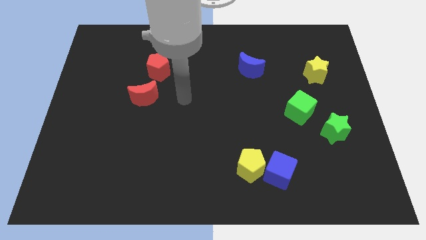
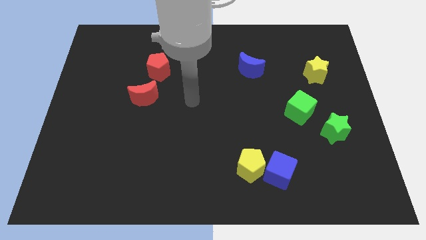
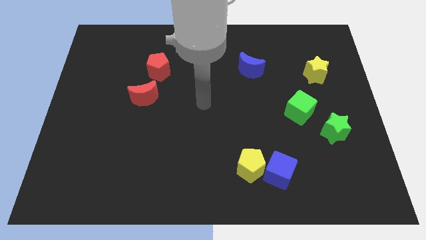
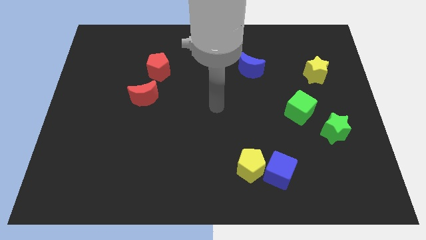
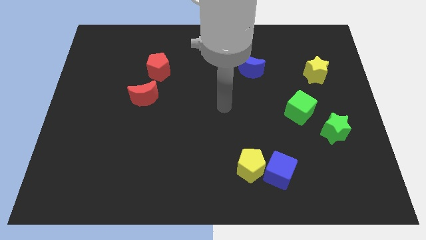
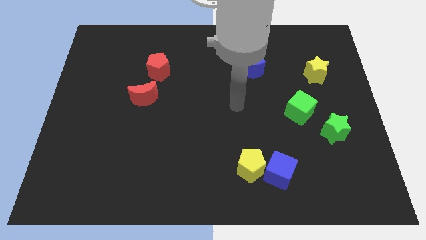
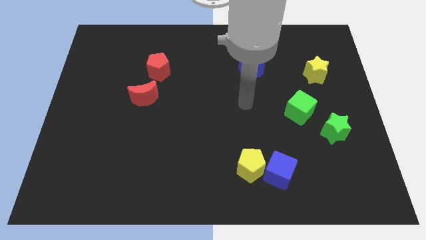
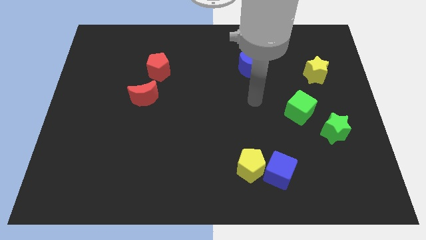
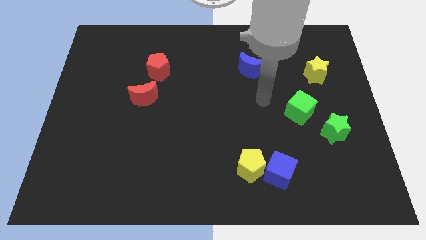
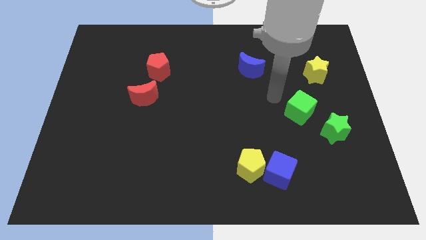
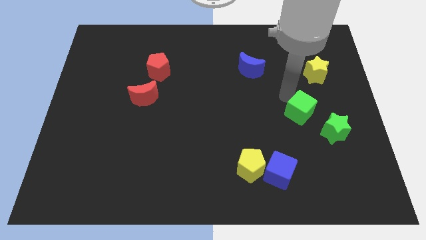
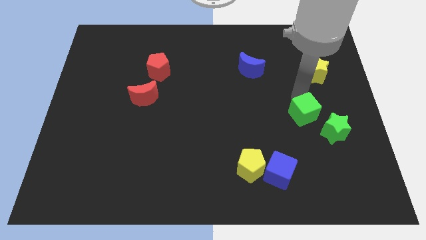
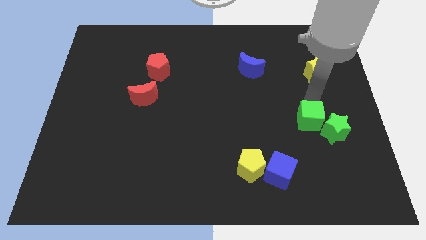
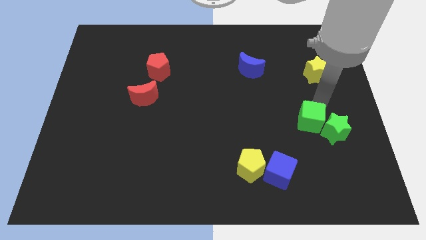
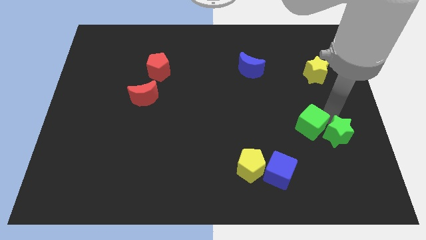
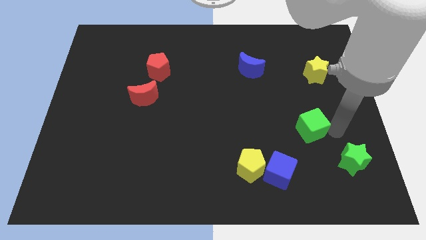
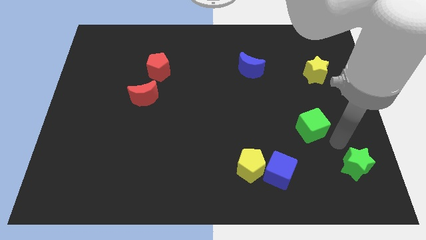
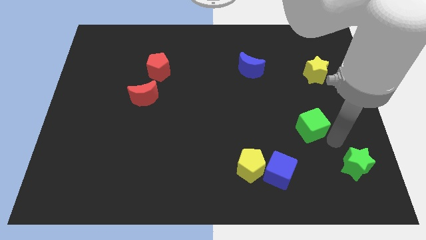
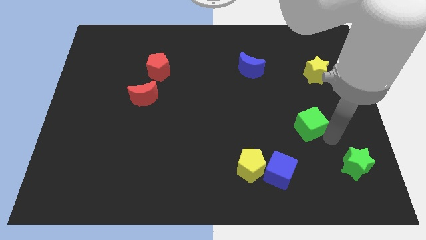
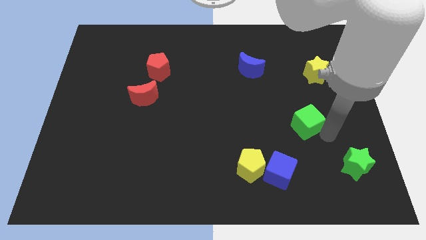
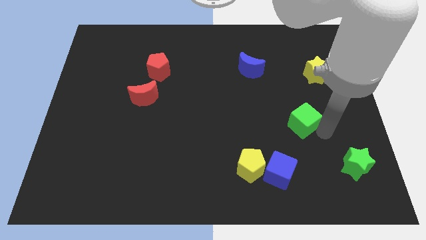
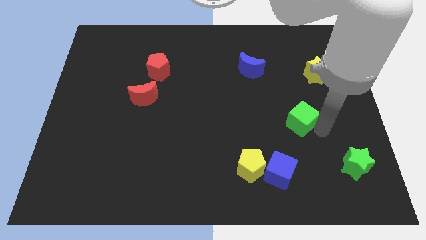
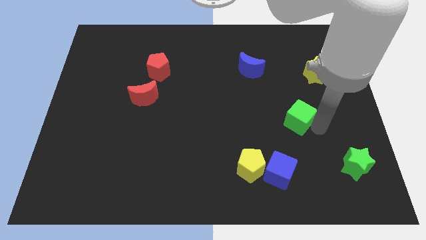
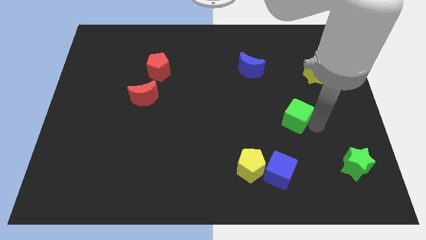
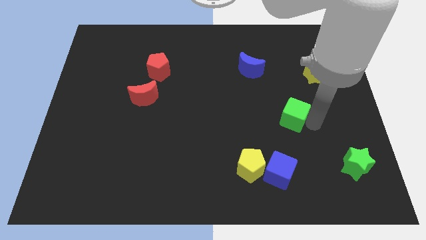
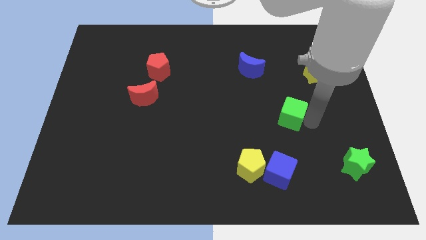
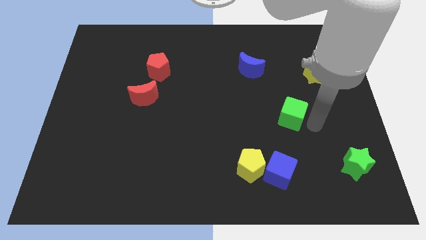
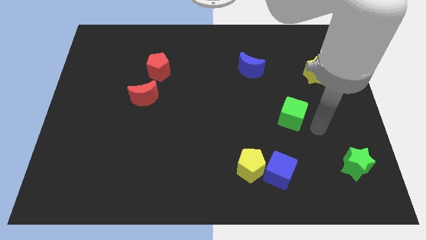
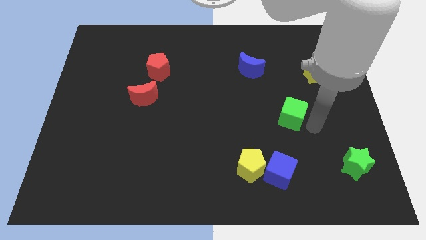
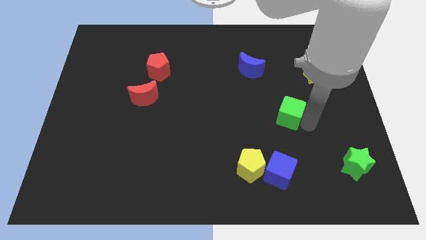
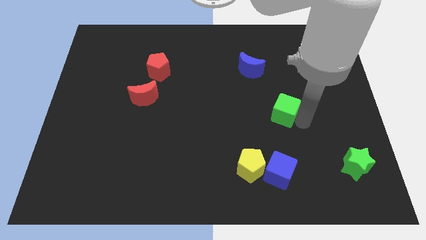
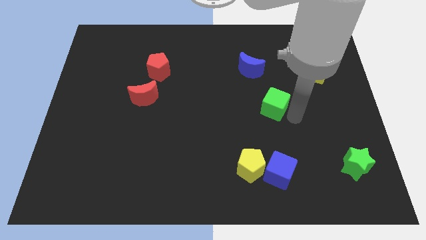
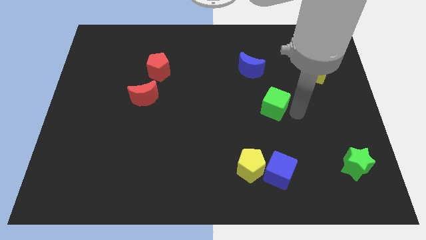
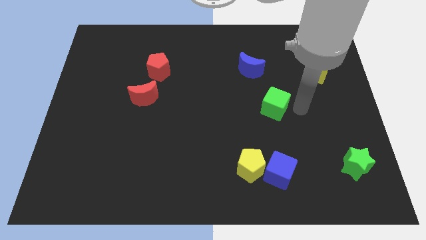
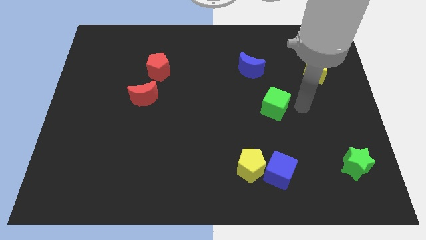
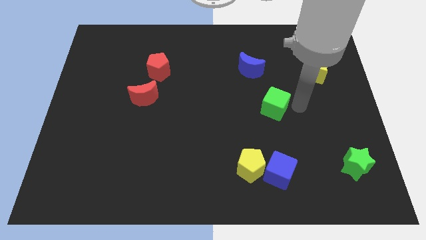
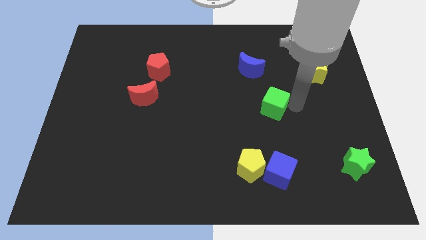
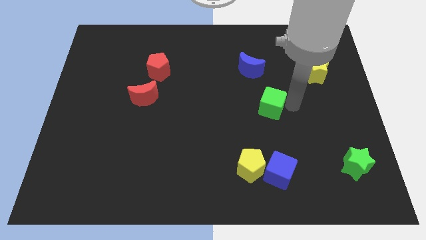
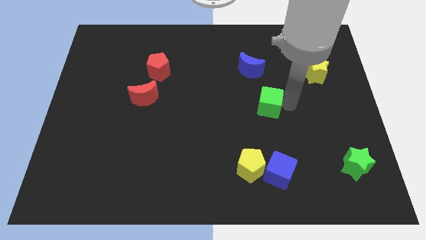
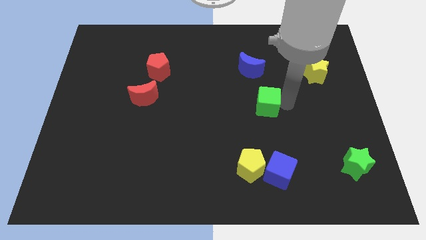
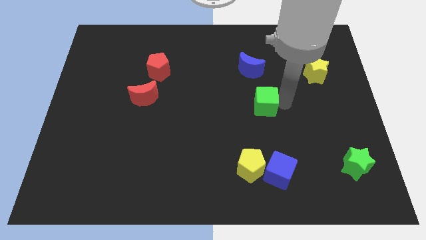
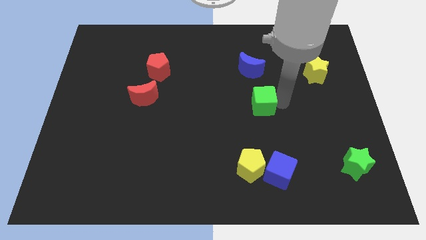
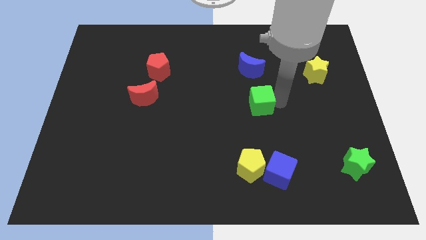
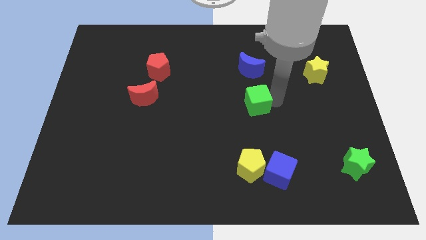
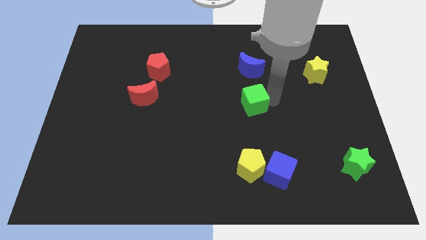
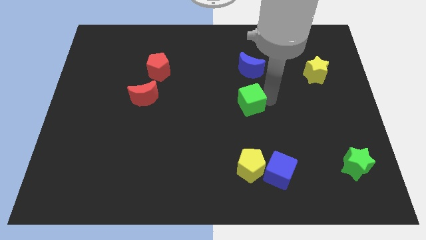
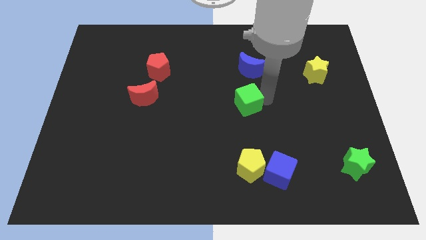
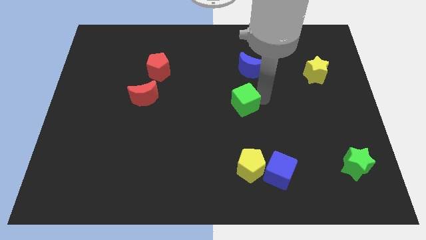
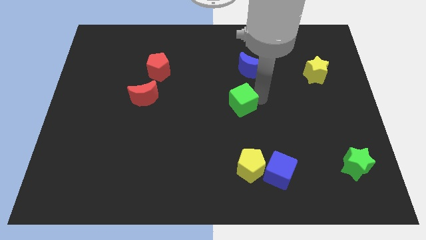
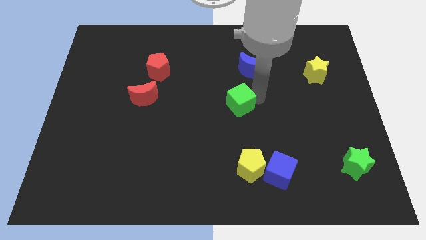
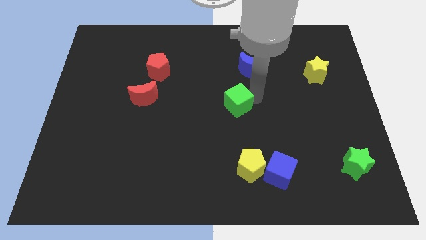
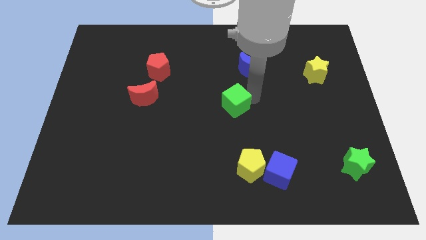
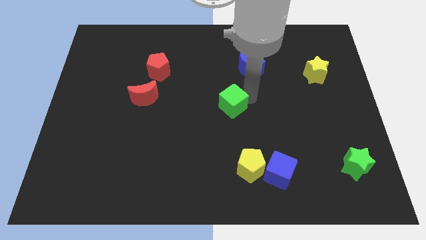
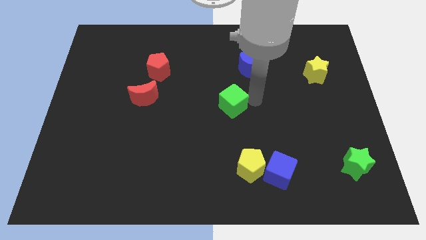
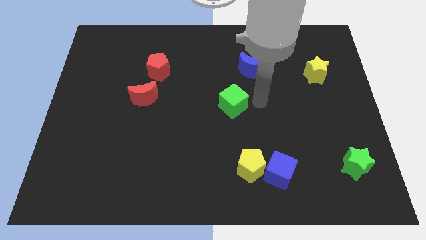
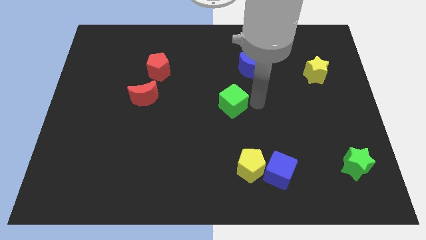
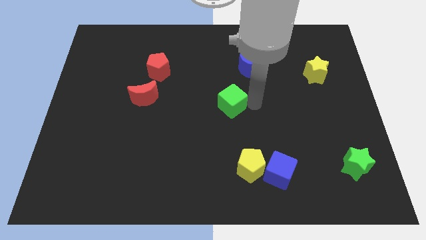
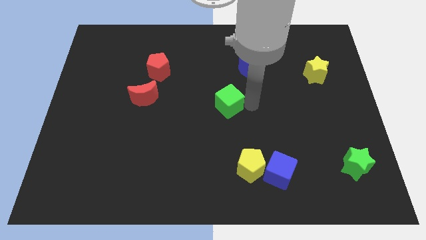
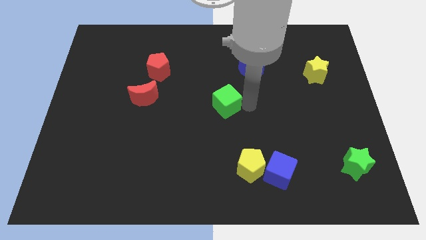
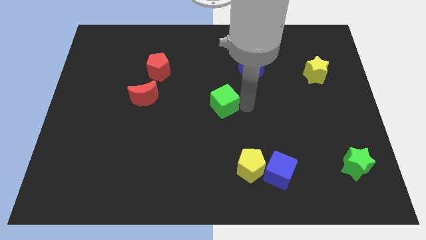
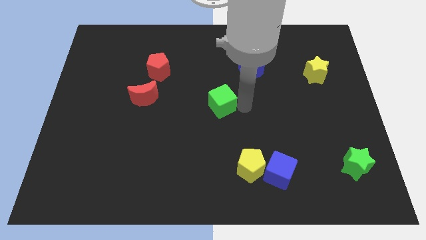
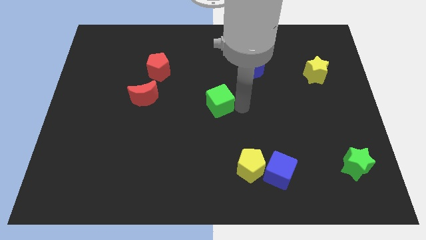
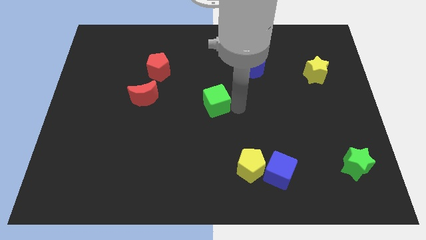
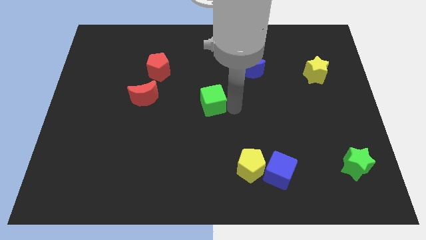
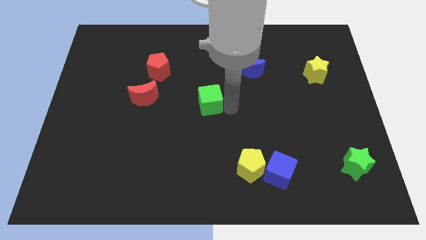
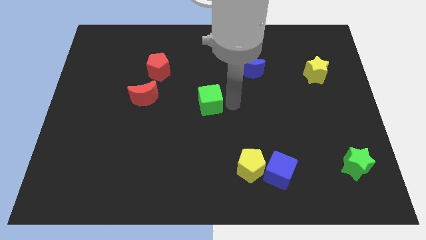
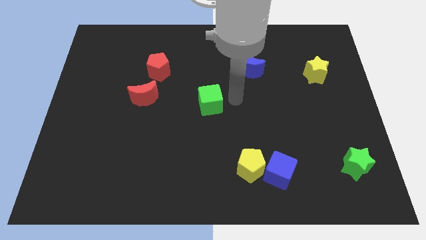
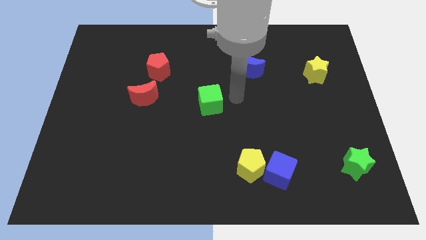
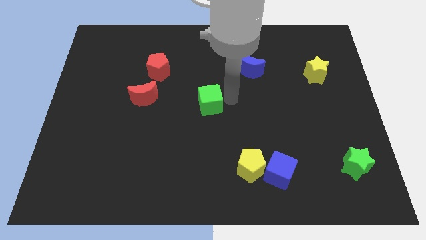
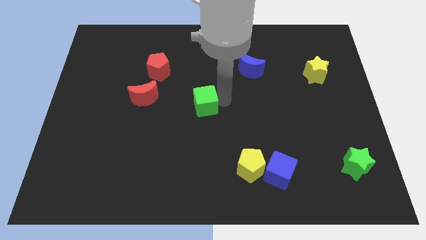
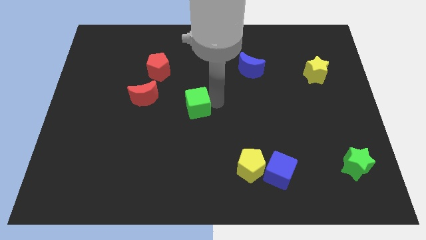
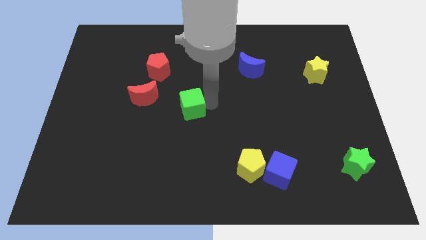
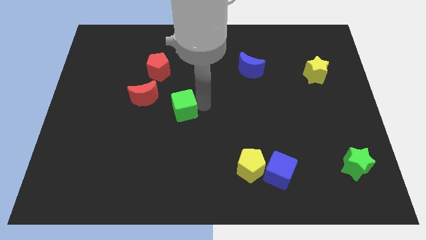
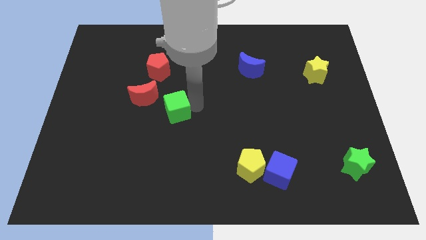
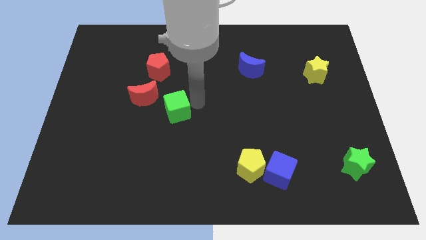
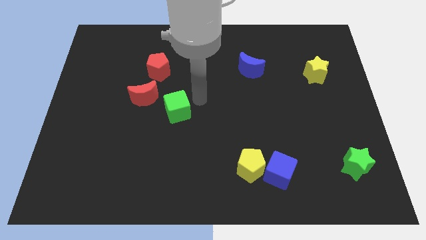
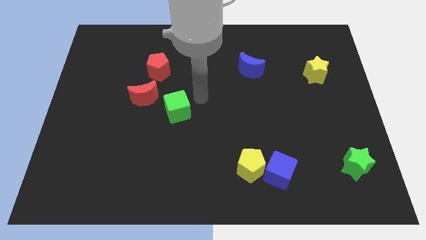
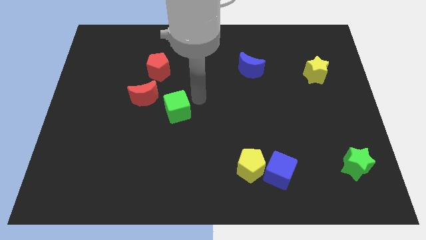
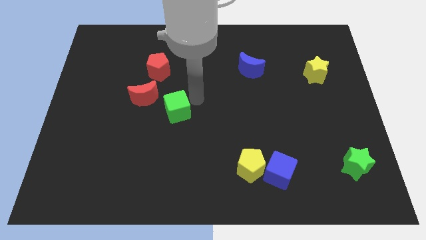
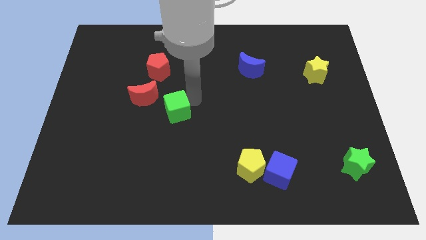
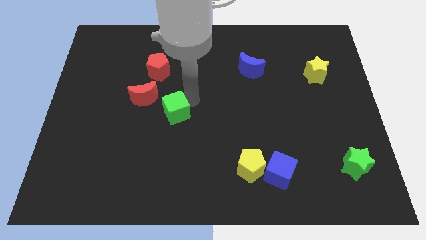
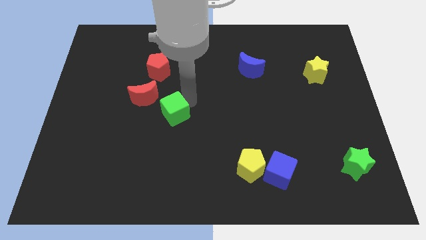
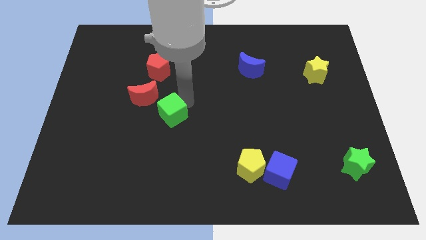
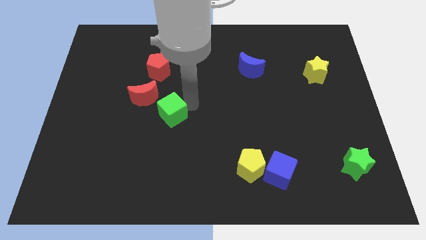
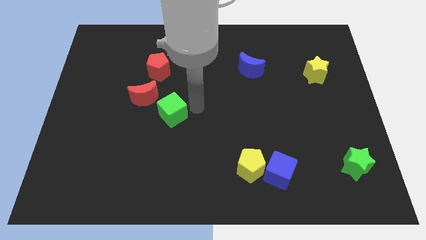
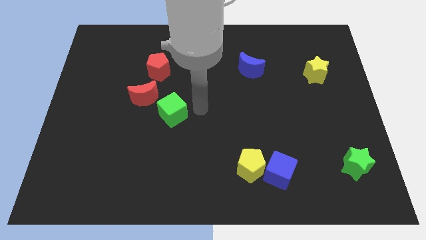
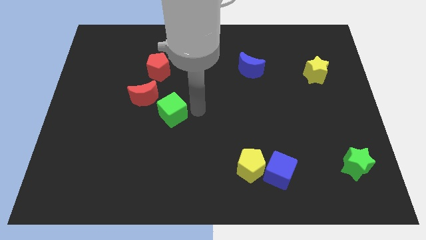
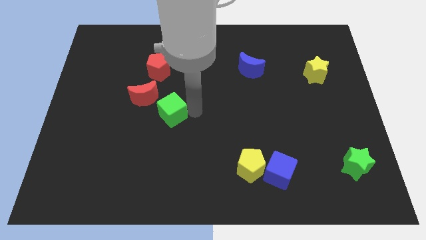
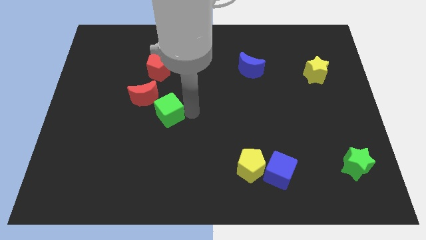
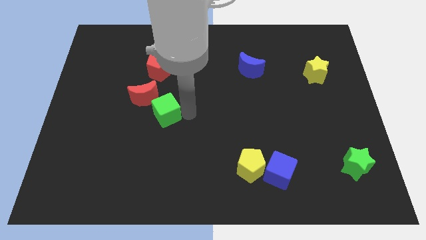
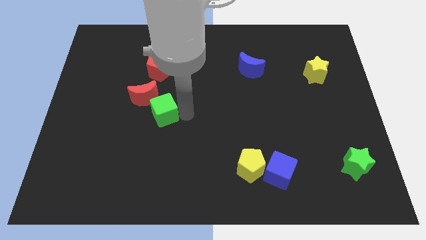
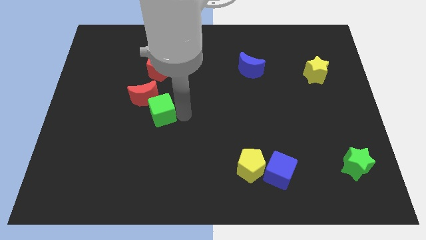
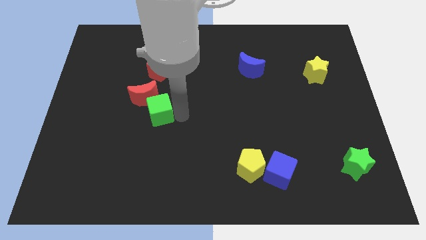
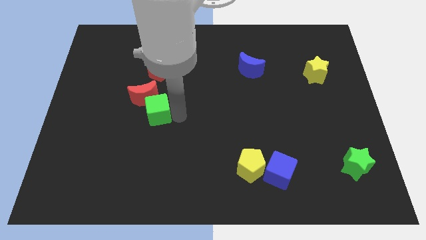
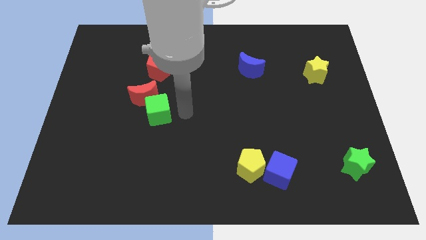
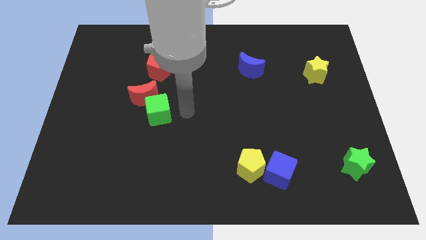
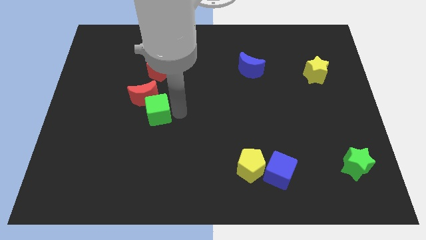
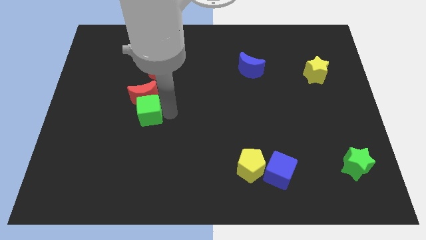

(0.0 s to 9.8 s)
put the green cube to the bottom left of the red moon
